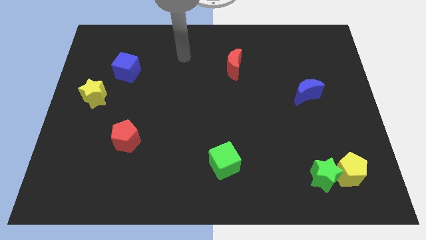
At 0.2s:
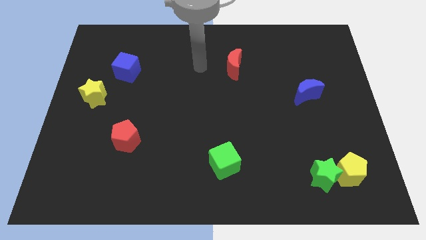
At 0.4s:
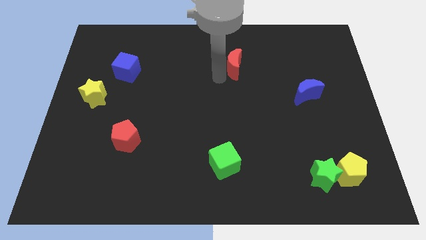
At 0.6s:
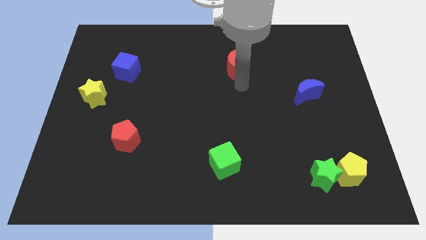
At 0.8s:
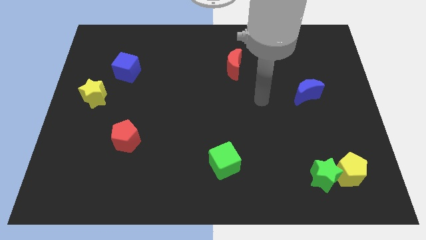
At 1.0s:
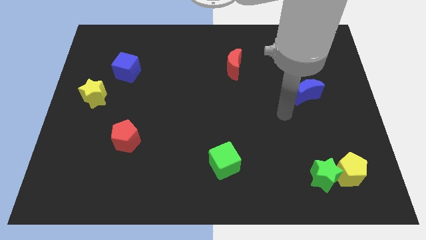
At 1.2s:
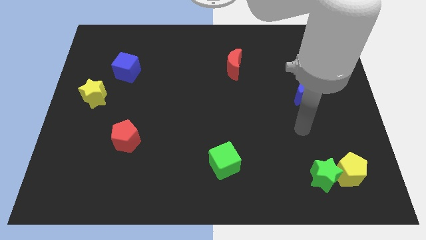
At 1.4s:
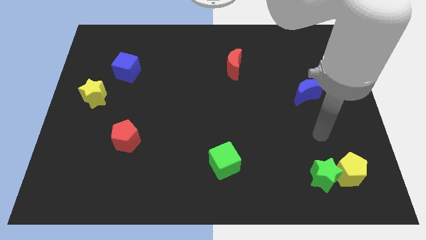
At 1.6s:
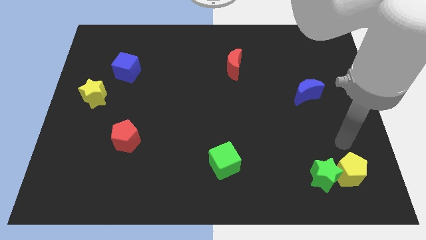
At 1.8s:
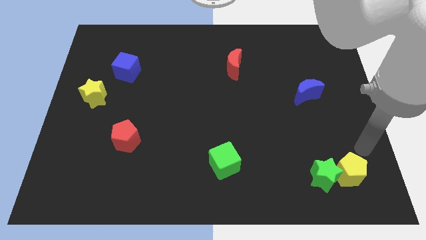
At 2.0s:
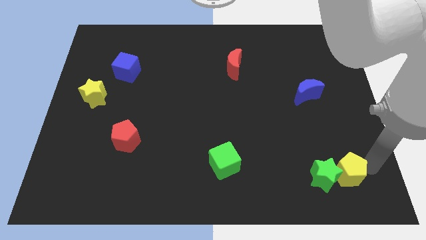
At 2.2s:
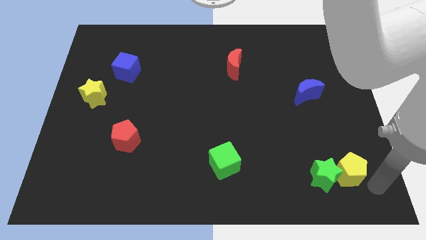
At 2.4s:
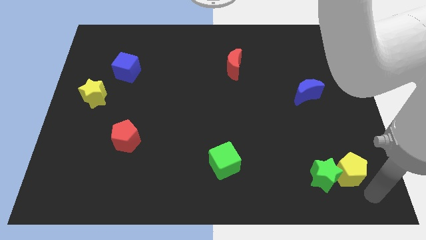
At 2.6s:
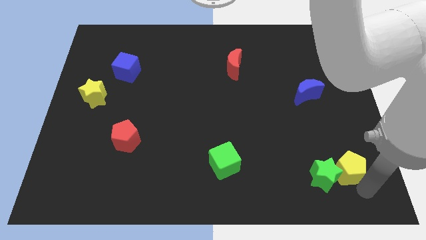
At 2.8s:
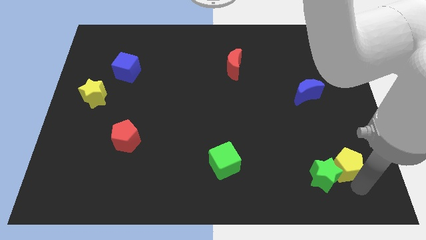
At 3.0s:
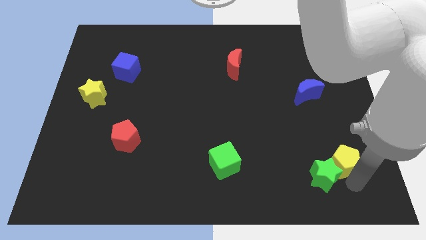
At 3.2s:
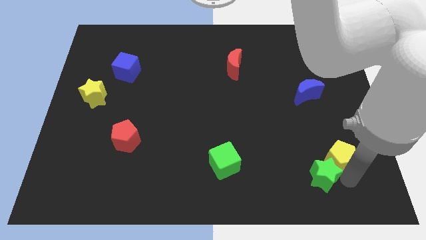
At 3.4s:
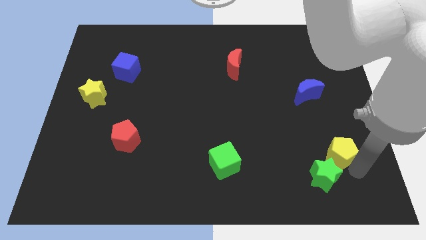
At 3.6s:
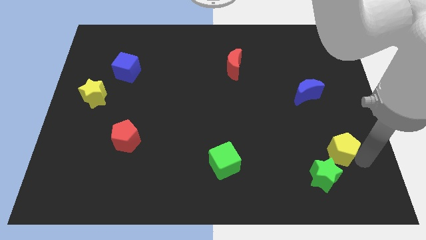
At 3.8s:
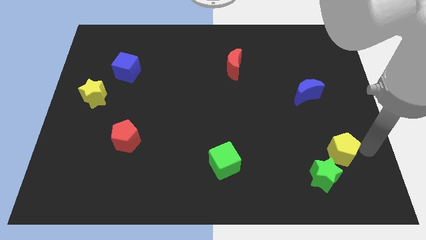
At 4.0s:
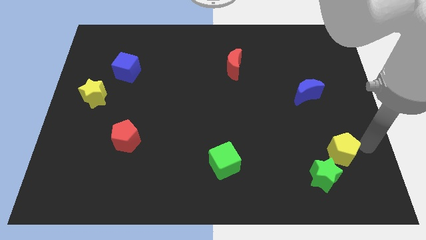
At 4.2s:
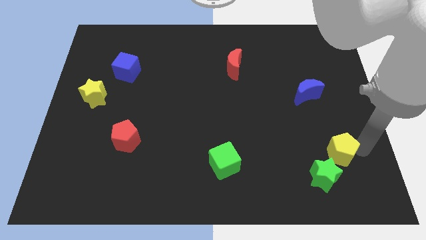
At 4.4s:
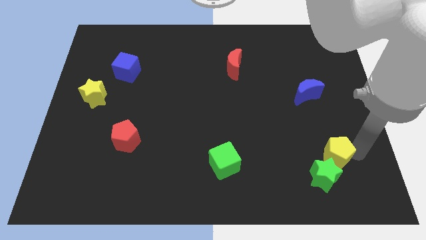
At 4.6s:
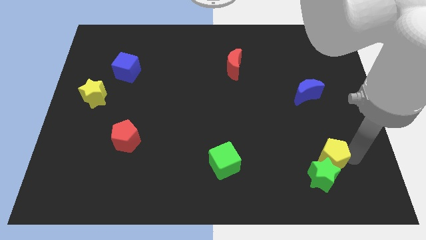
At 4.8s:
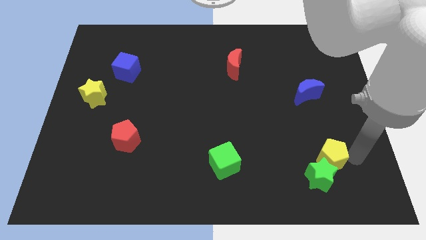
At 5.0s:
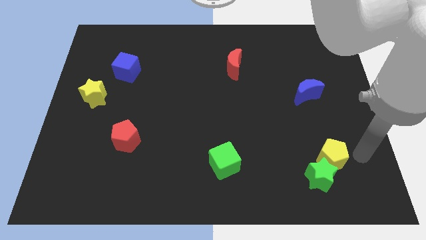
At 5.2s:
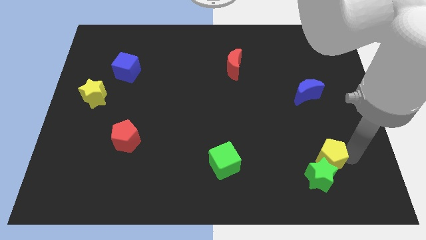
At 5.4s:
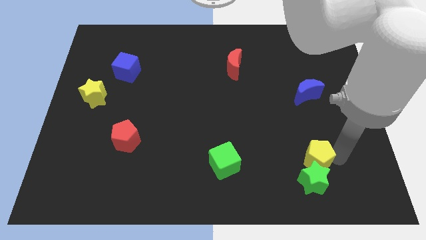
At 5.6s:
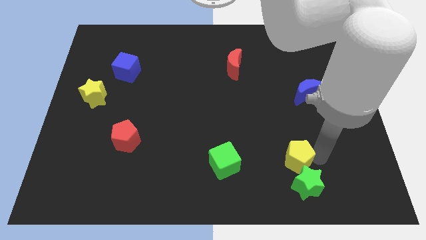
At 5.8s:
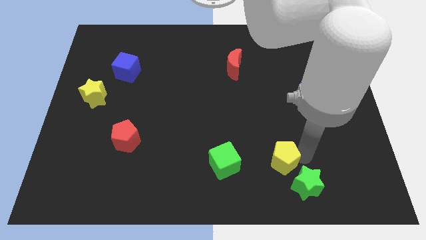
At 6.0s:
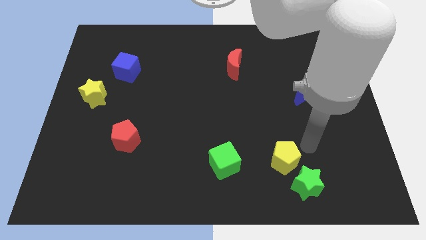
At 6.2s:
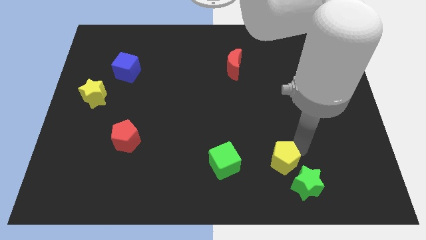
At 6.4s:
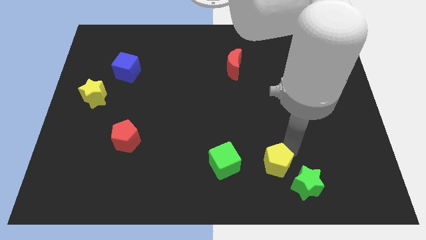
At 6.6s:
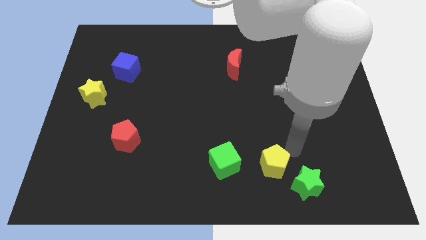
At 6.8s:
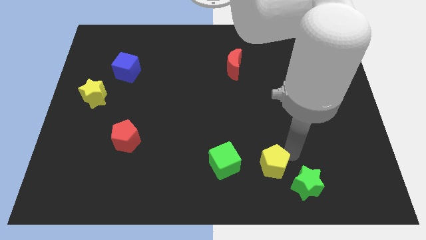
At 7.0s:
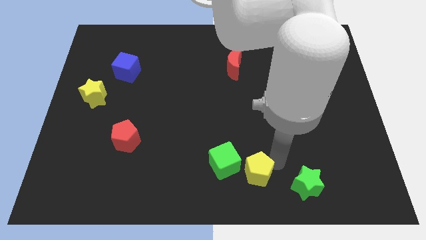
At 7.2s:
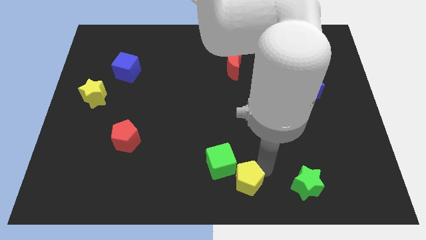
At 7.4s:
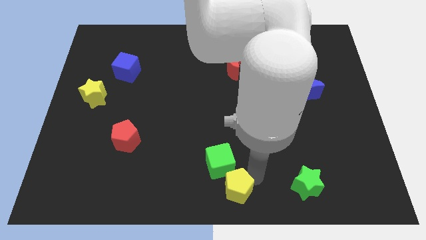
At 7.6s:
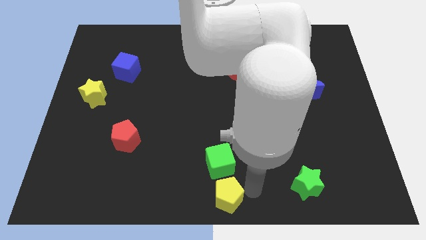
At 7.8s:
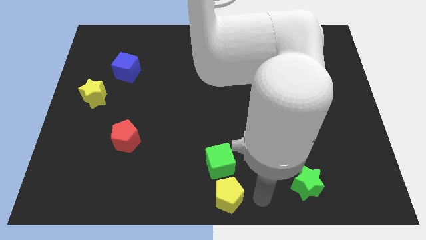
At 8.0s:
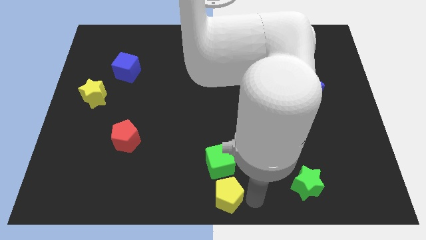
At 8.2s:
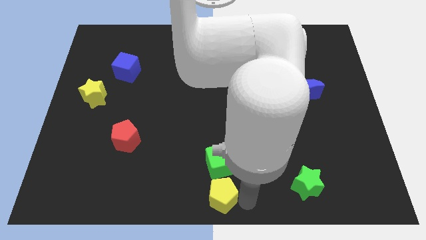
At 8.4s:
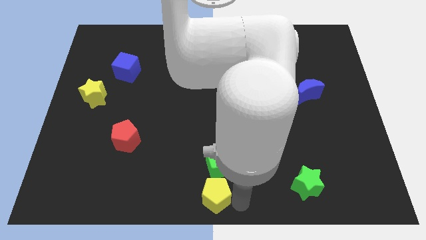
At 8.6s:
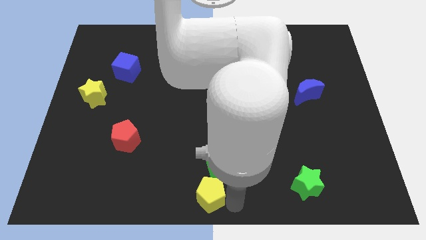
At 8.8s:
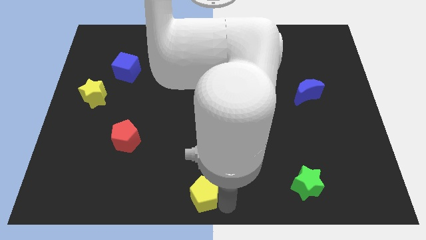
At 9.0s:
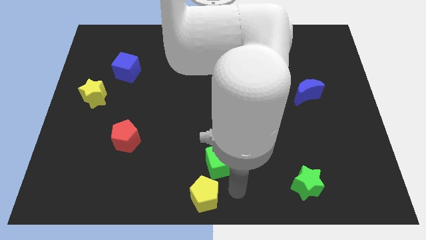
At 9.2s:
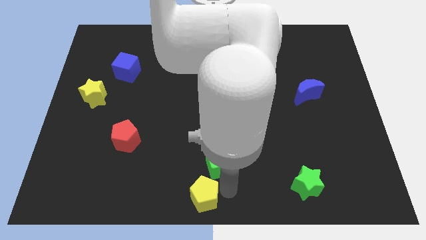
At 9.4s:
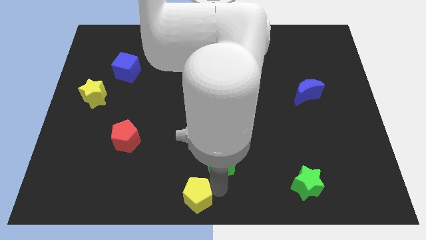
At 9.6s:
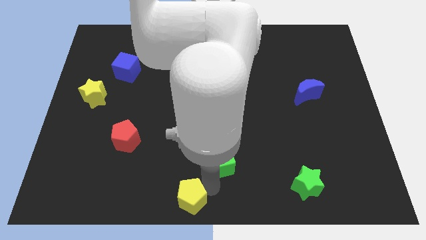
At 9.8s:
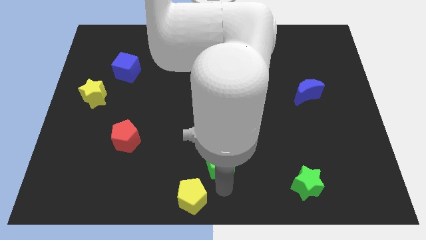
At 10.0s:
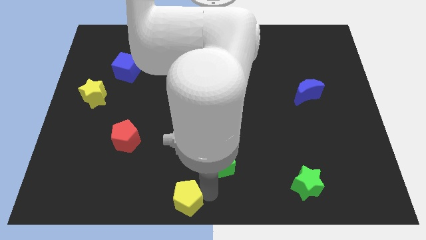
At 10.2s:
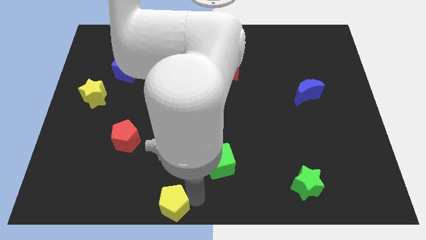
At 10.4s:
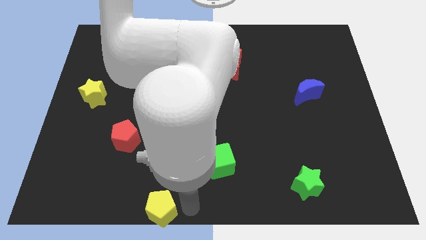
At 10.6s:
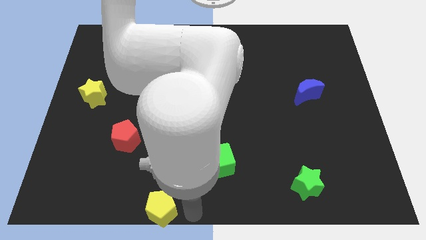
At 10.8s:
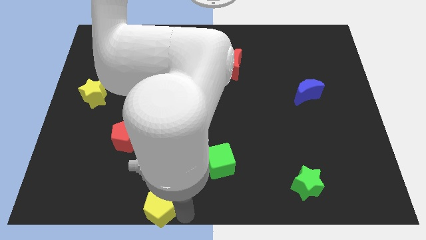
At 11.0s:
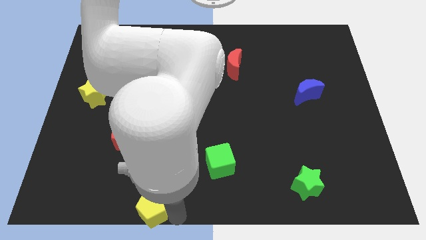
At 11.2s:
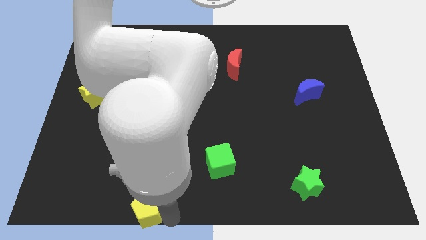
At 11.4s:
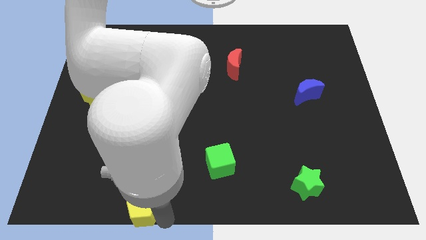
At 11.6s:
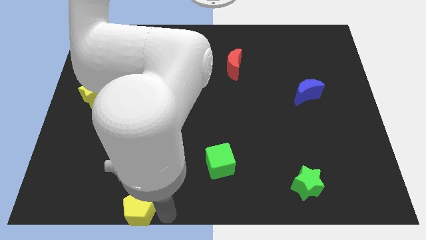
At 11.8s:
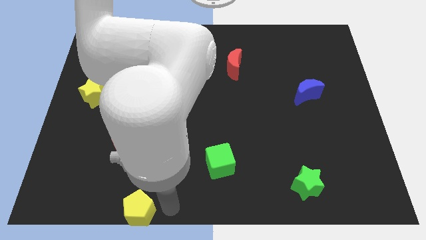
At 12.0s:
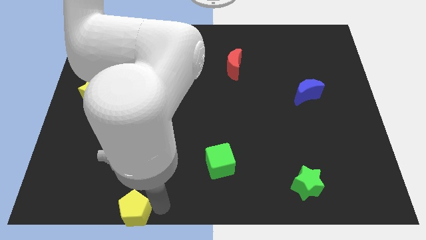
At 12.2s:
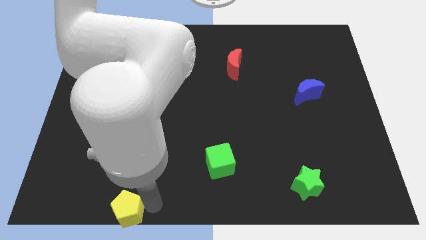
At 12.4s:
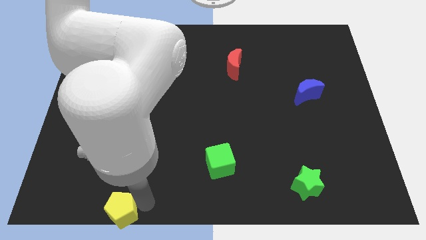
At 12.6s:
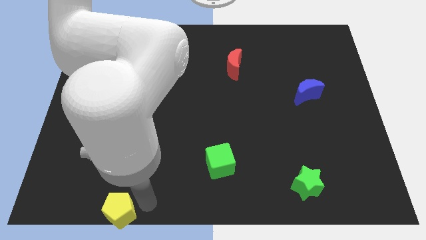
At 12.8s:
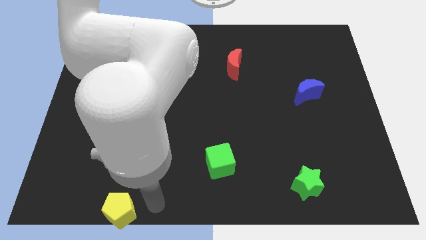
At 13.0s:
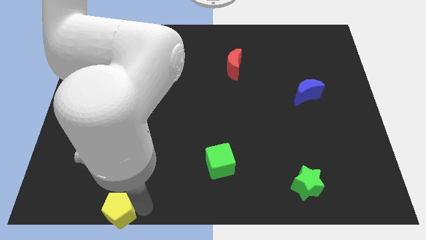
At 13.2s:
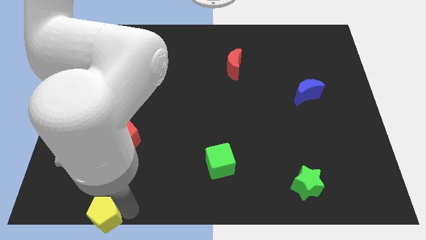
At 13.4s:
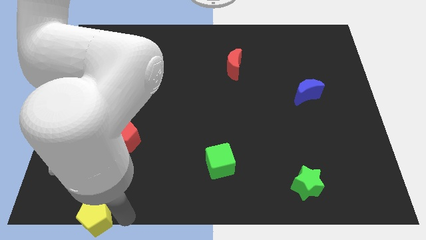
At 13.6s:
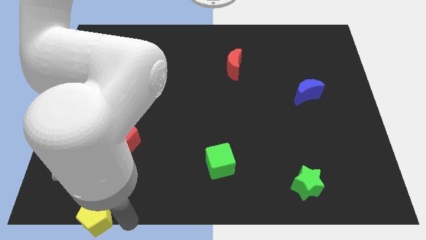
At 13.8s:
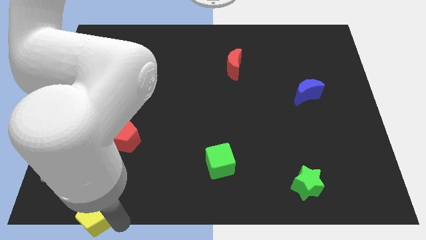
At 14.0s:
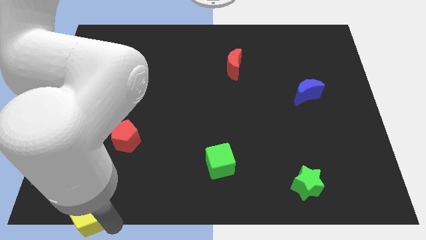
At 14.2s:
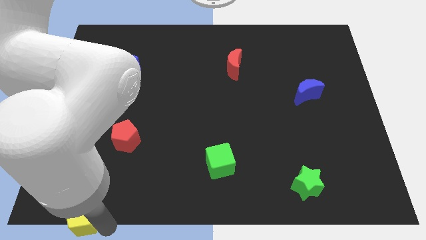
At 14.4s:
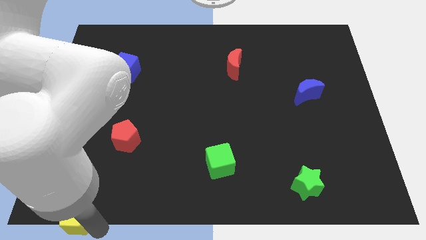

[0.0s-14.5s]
push the yellow pentagon to the lower left corner
